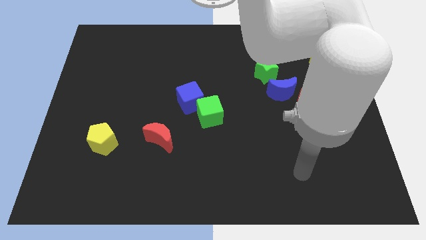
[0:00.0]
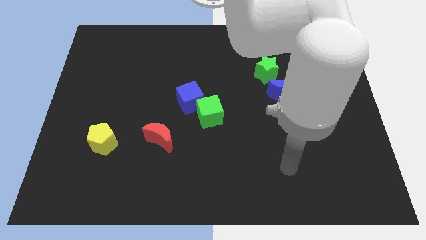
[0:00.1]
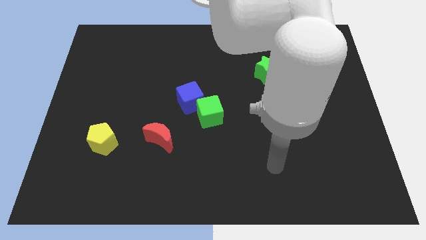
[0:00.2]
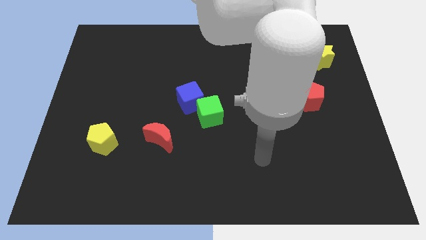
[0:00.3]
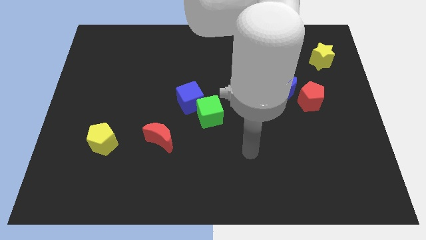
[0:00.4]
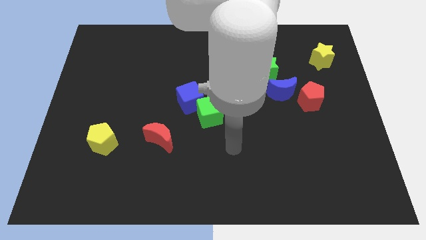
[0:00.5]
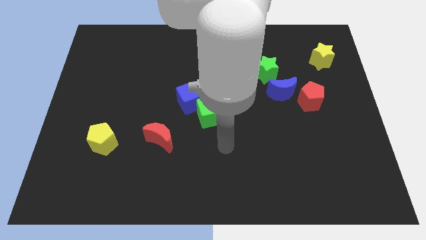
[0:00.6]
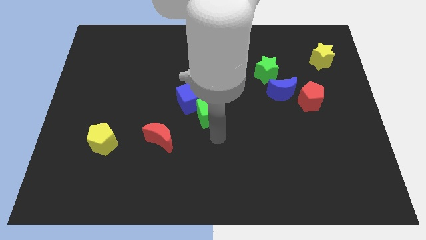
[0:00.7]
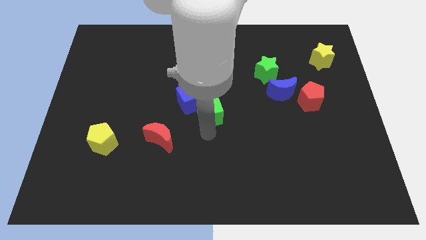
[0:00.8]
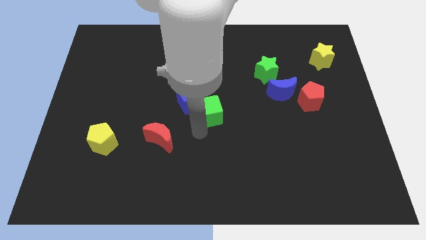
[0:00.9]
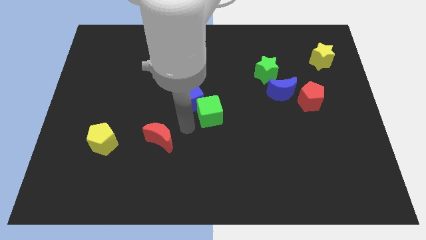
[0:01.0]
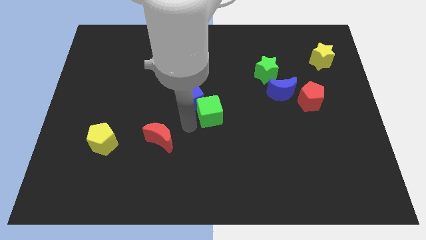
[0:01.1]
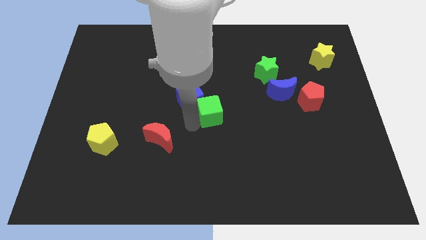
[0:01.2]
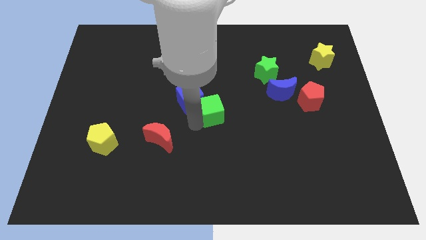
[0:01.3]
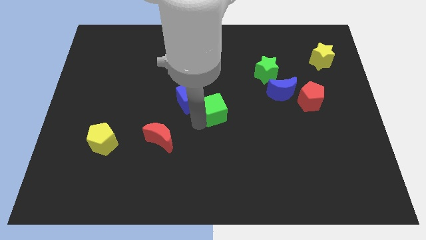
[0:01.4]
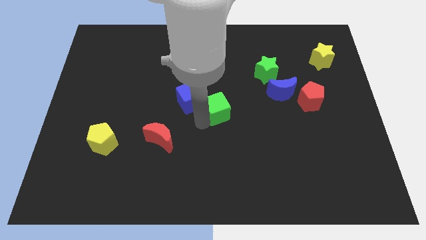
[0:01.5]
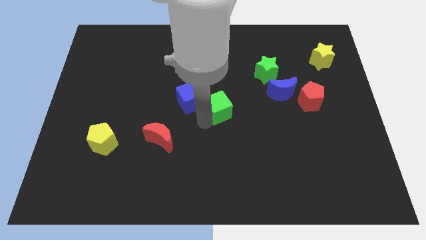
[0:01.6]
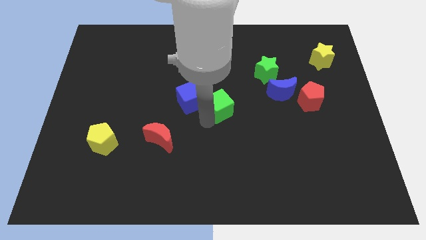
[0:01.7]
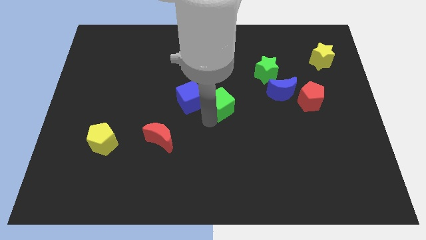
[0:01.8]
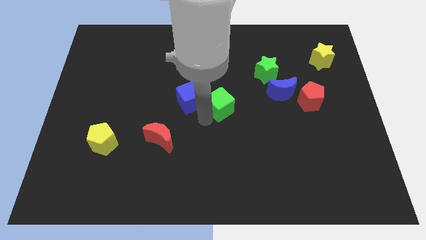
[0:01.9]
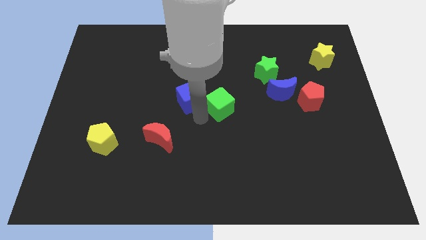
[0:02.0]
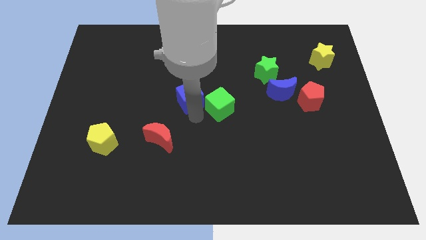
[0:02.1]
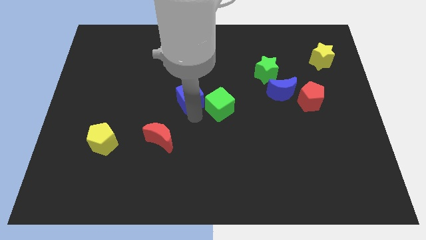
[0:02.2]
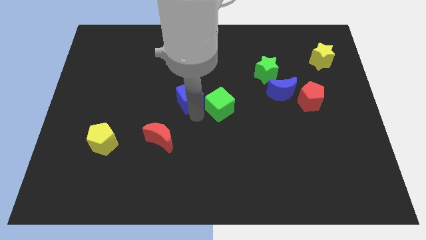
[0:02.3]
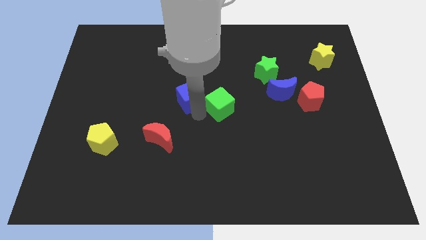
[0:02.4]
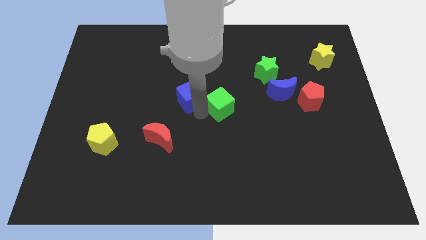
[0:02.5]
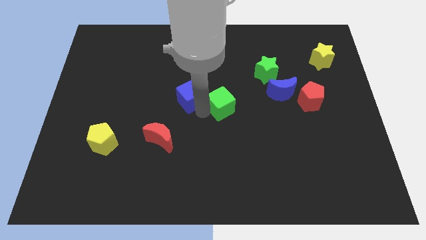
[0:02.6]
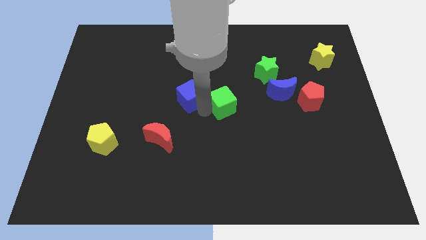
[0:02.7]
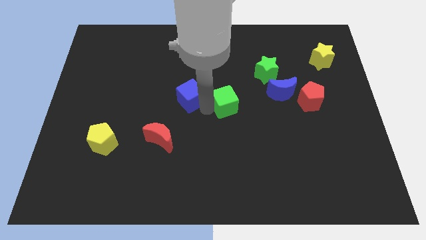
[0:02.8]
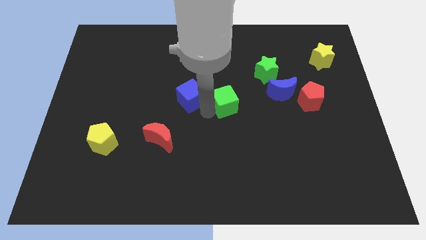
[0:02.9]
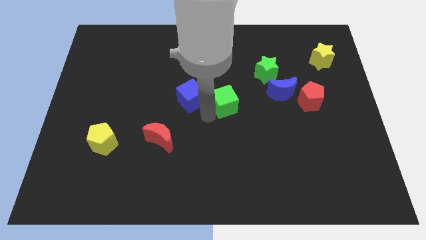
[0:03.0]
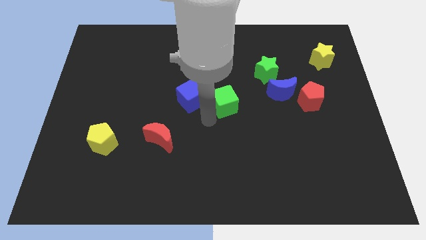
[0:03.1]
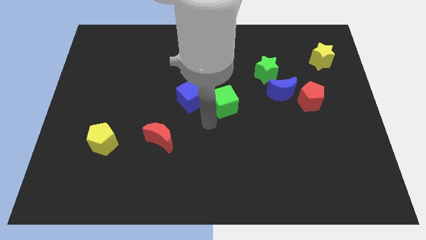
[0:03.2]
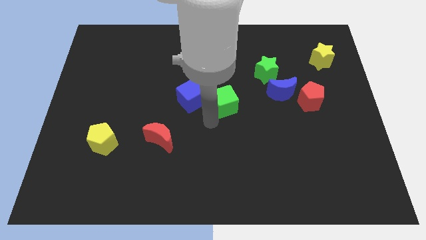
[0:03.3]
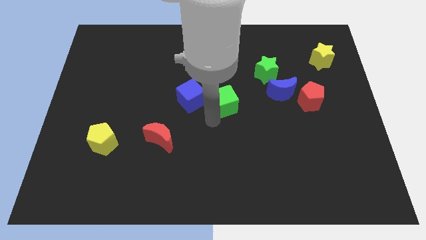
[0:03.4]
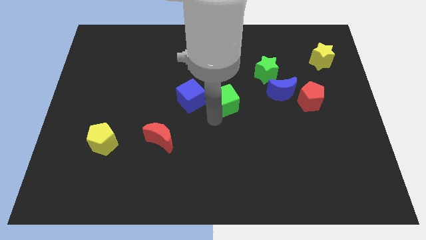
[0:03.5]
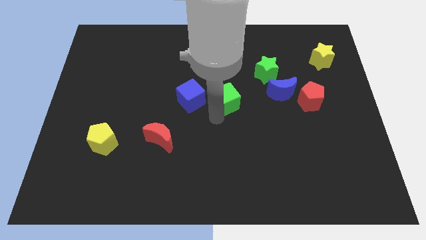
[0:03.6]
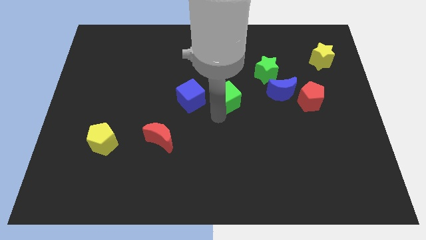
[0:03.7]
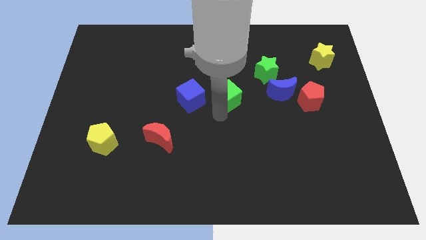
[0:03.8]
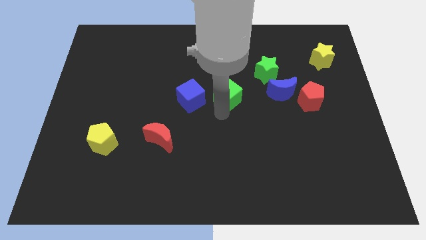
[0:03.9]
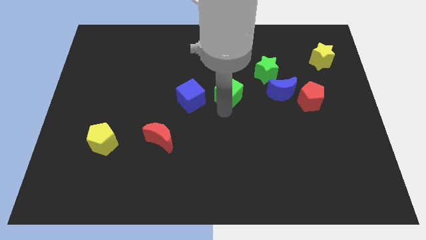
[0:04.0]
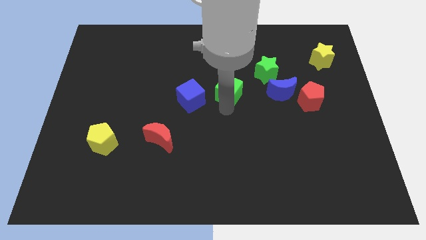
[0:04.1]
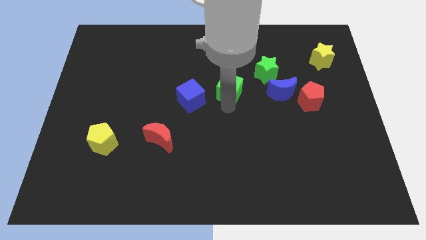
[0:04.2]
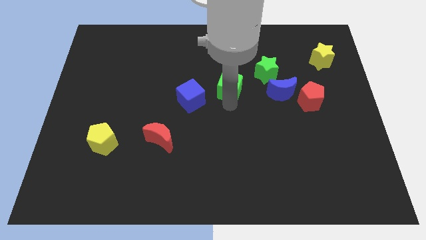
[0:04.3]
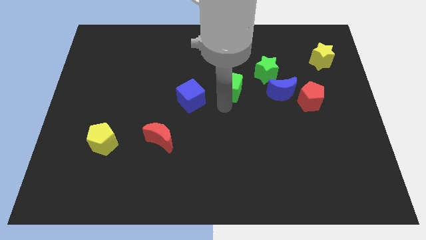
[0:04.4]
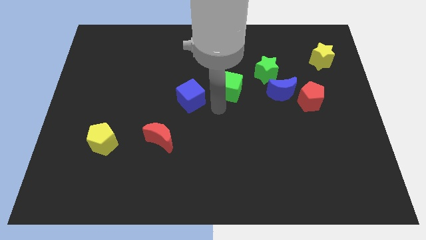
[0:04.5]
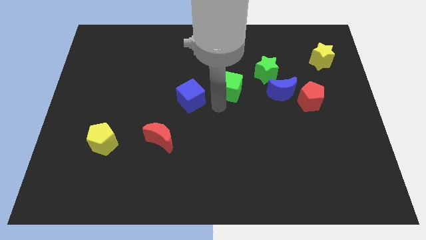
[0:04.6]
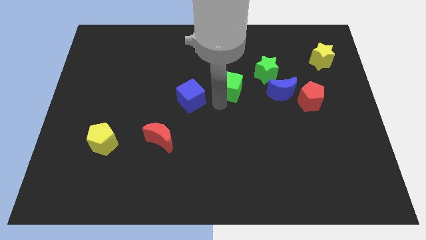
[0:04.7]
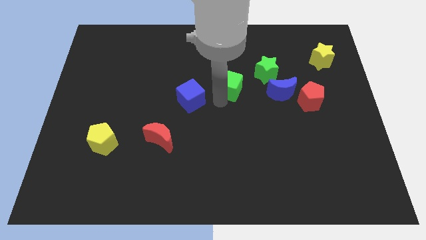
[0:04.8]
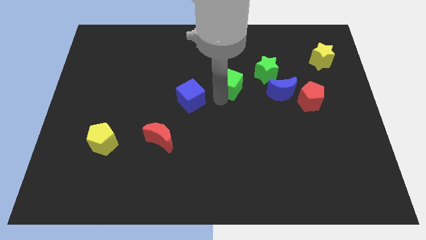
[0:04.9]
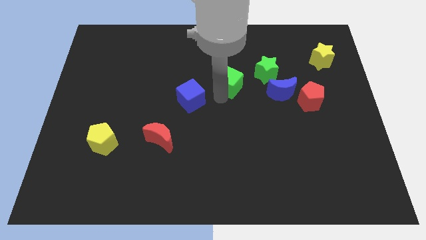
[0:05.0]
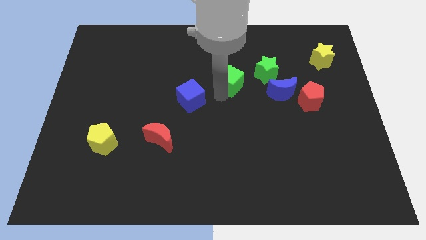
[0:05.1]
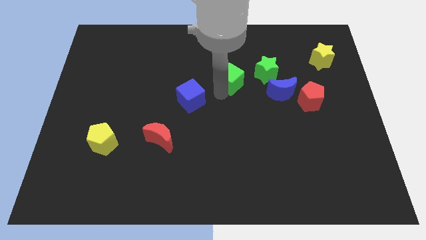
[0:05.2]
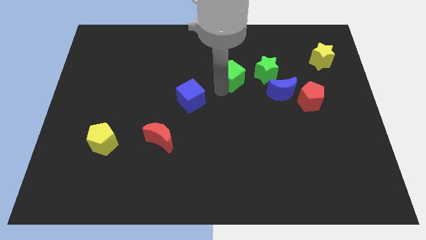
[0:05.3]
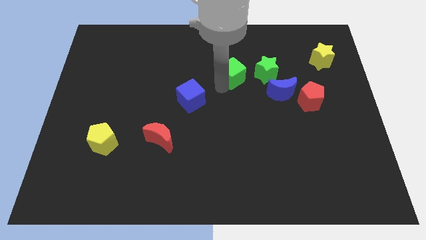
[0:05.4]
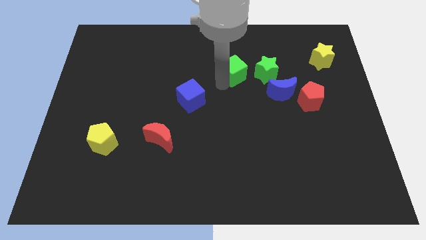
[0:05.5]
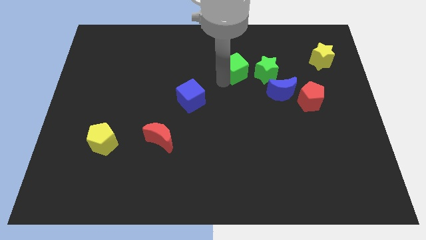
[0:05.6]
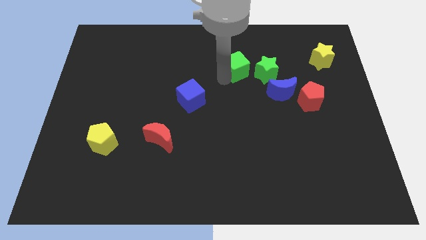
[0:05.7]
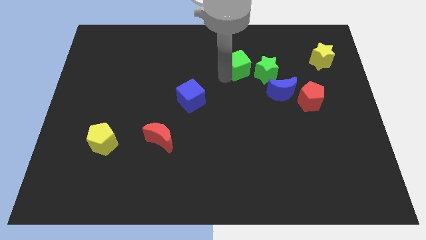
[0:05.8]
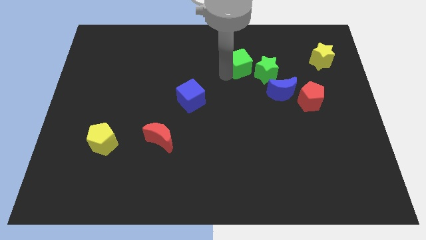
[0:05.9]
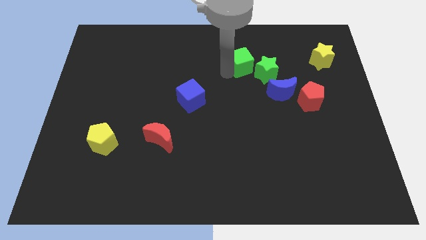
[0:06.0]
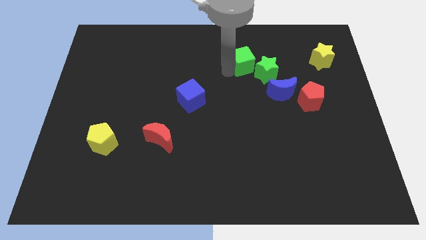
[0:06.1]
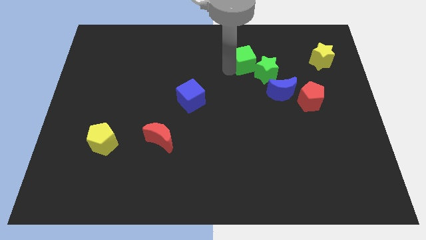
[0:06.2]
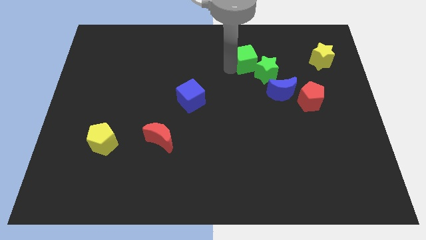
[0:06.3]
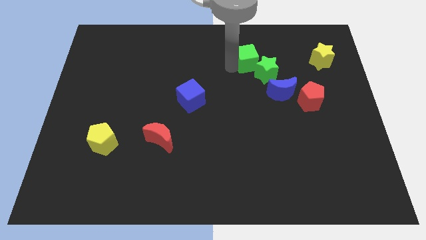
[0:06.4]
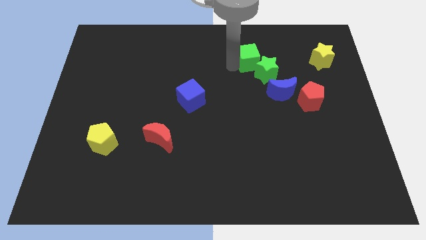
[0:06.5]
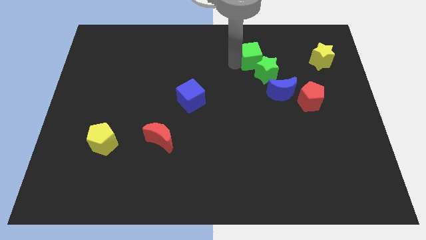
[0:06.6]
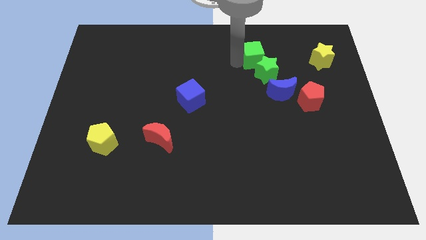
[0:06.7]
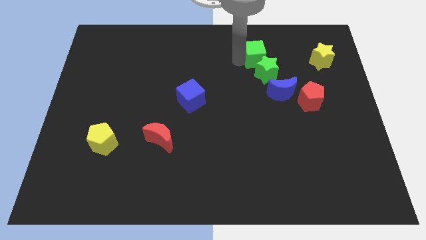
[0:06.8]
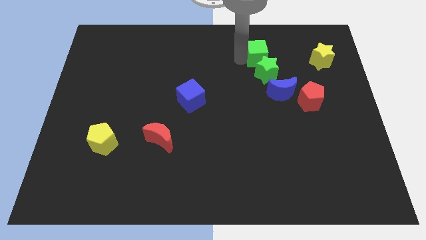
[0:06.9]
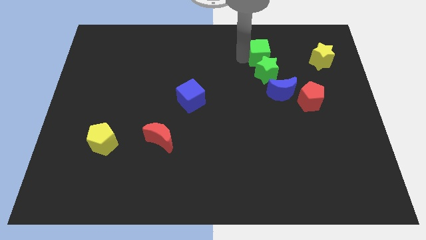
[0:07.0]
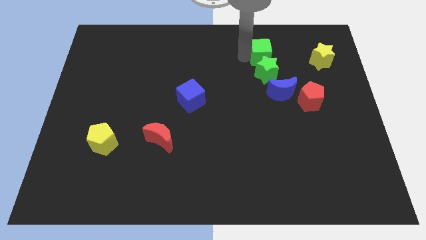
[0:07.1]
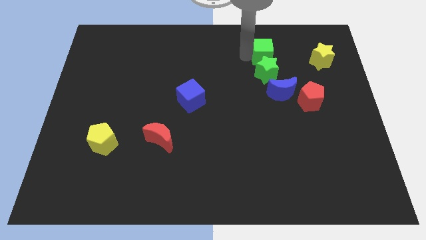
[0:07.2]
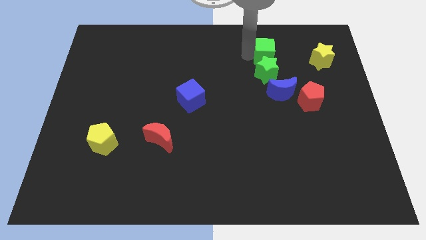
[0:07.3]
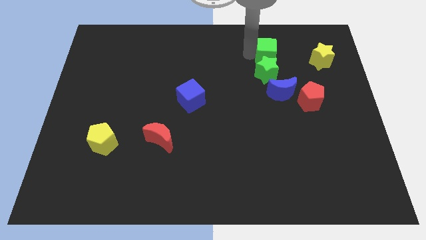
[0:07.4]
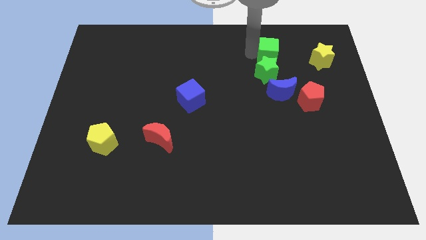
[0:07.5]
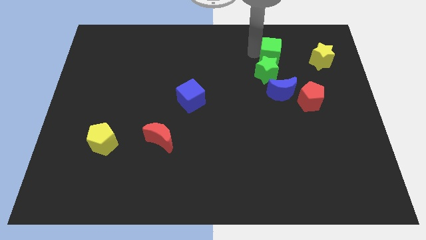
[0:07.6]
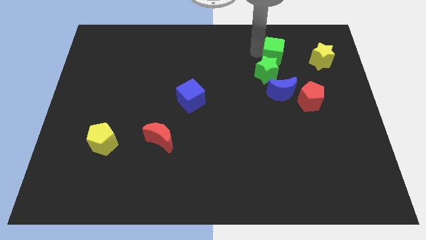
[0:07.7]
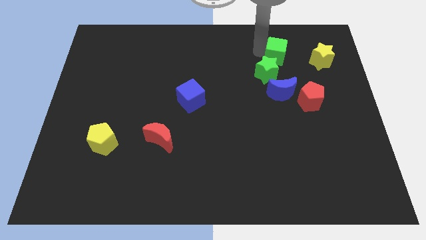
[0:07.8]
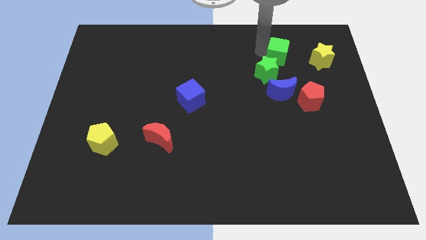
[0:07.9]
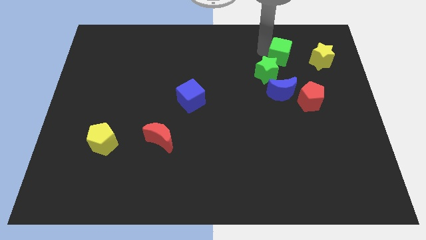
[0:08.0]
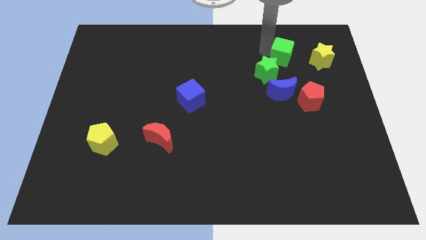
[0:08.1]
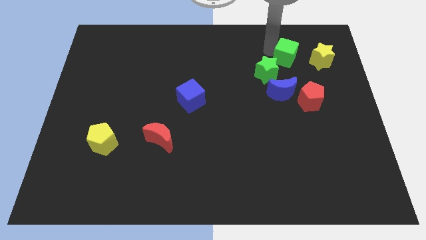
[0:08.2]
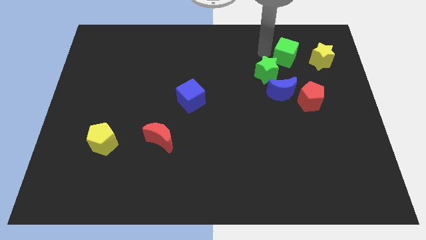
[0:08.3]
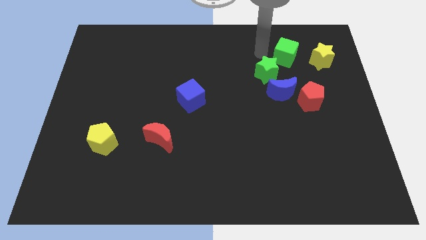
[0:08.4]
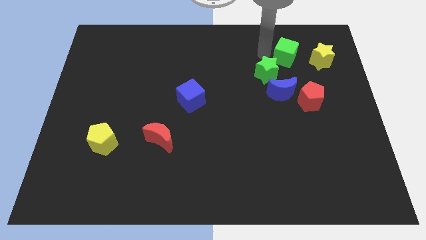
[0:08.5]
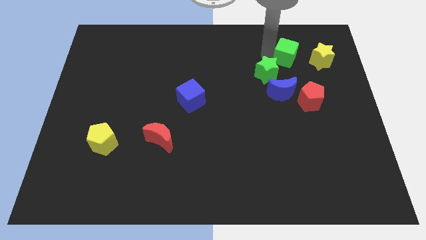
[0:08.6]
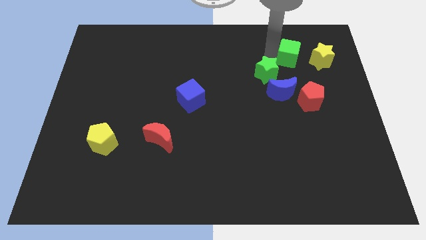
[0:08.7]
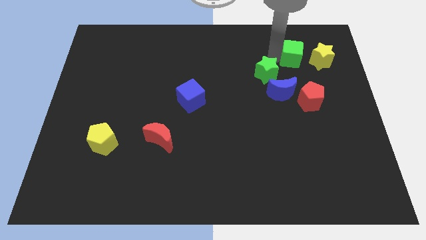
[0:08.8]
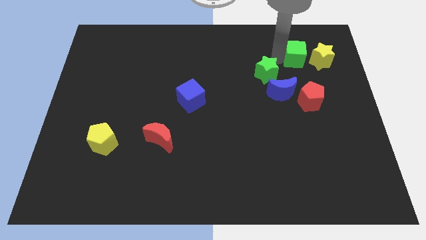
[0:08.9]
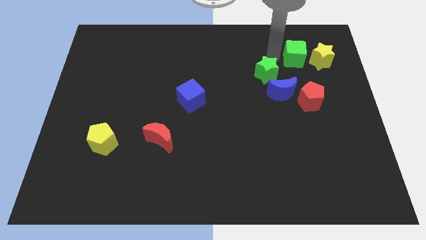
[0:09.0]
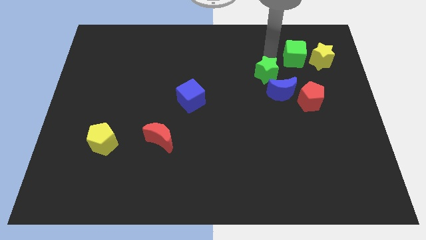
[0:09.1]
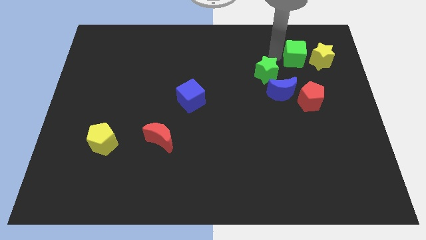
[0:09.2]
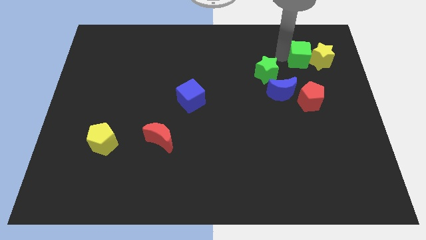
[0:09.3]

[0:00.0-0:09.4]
push the green cube towards the yellow star
